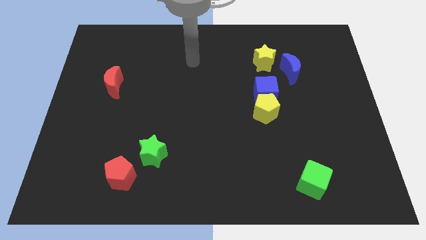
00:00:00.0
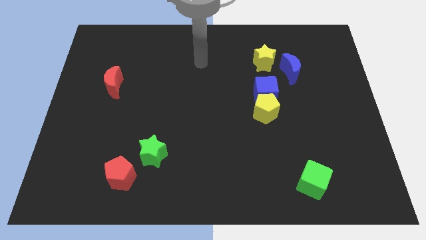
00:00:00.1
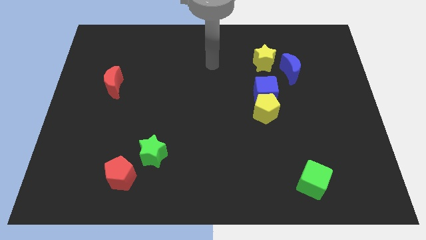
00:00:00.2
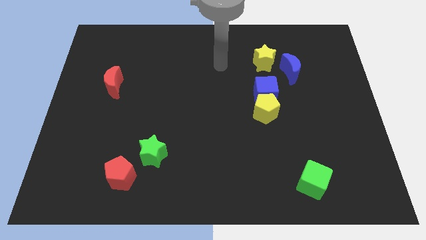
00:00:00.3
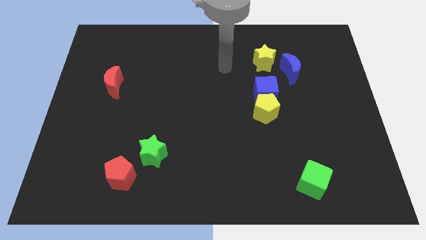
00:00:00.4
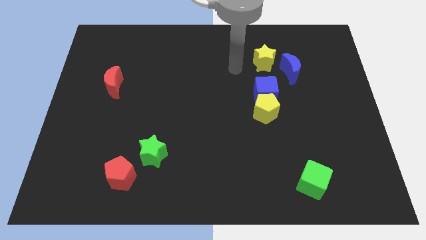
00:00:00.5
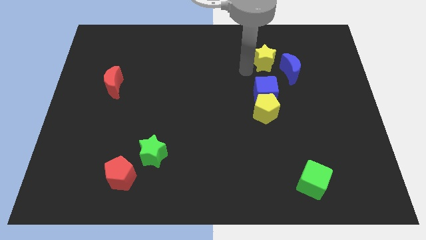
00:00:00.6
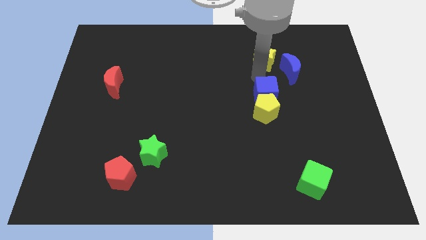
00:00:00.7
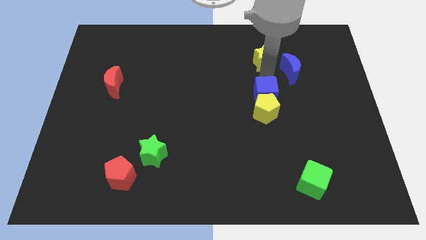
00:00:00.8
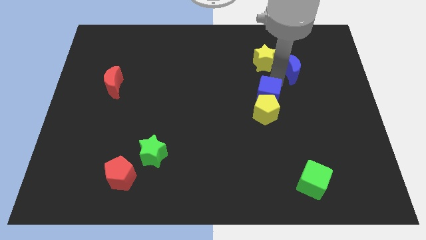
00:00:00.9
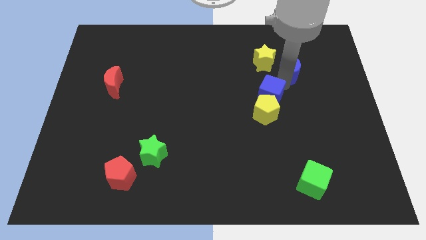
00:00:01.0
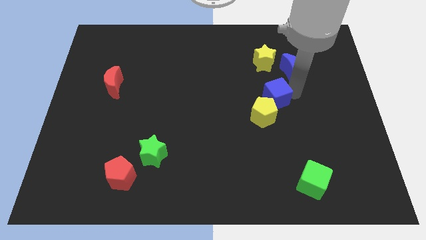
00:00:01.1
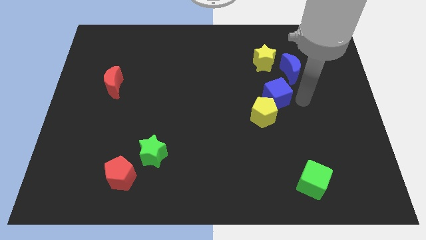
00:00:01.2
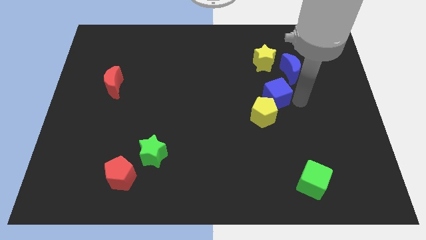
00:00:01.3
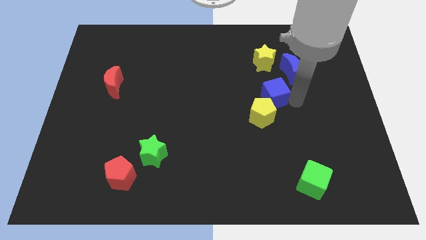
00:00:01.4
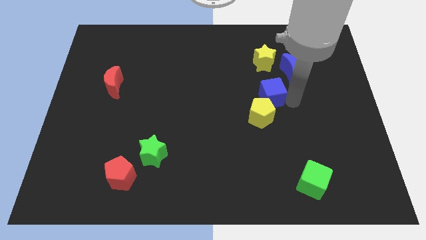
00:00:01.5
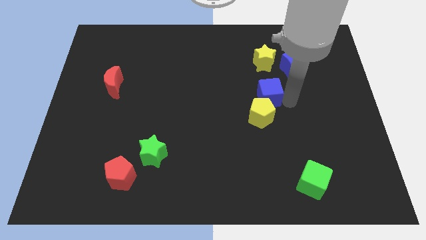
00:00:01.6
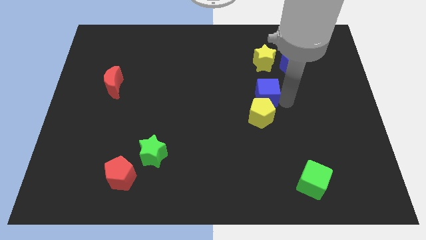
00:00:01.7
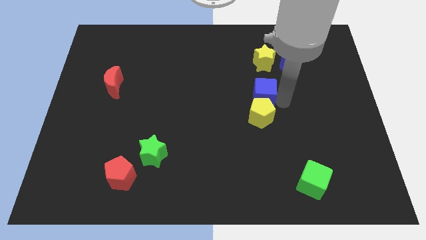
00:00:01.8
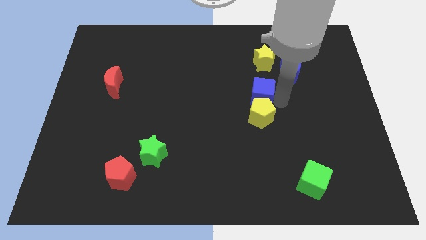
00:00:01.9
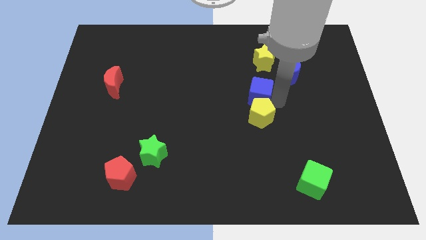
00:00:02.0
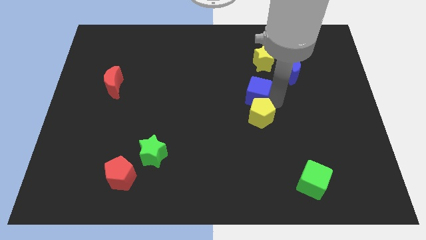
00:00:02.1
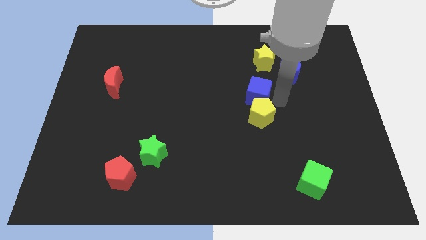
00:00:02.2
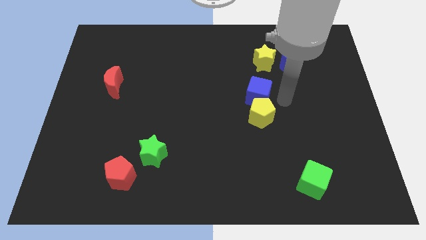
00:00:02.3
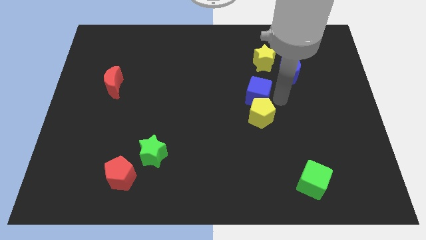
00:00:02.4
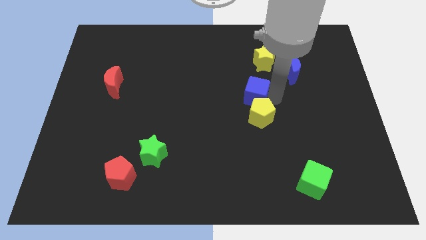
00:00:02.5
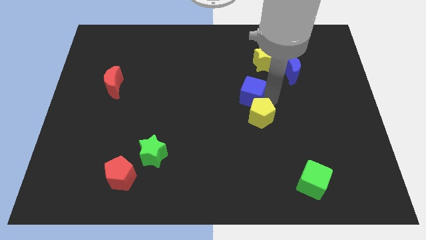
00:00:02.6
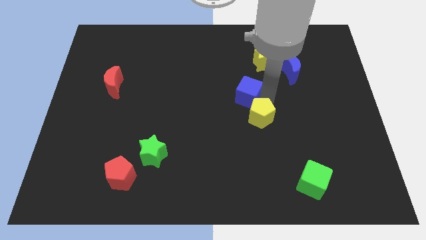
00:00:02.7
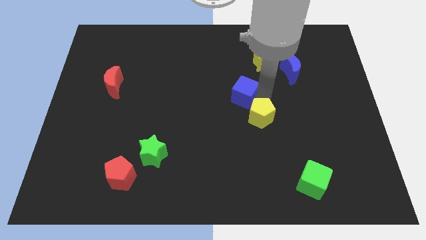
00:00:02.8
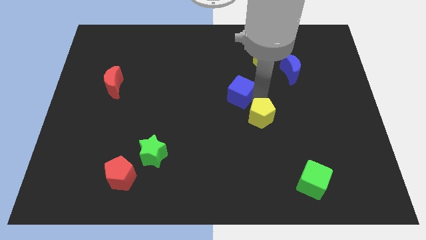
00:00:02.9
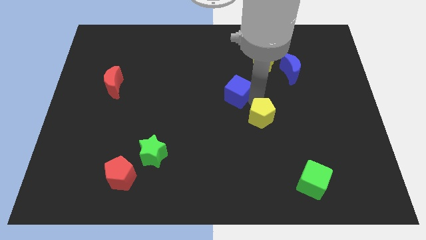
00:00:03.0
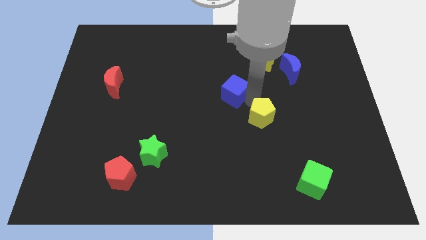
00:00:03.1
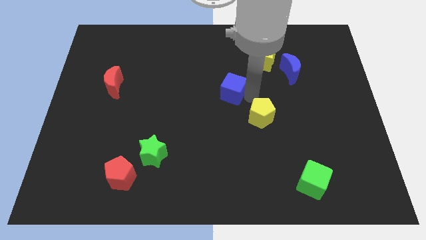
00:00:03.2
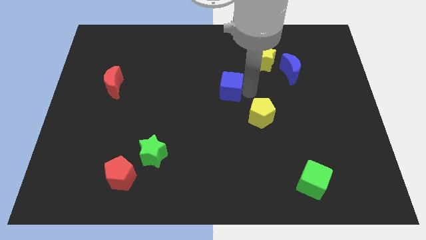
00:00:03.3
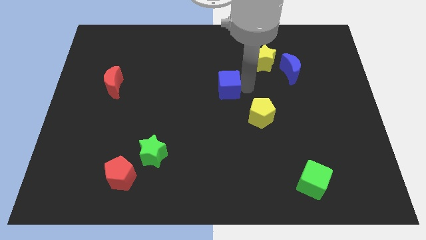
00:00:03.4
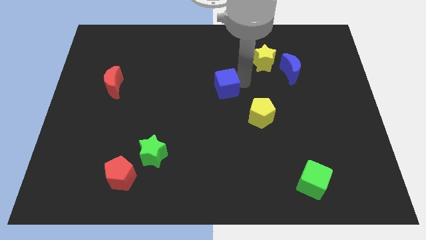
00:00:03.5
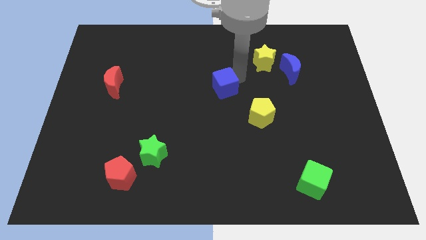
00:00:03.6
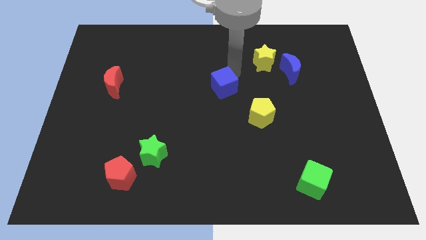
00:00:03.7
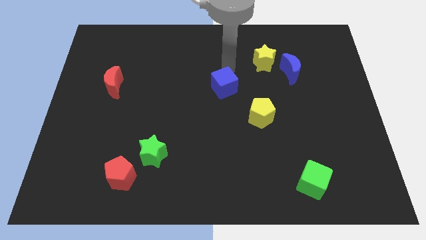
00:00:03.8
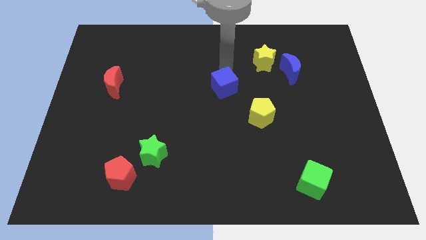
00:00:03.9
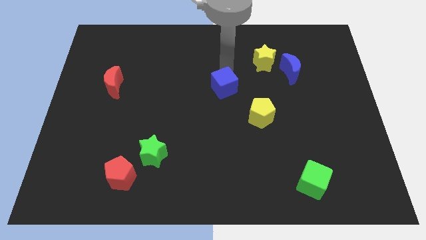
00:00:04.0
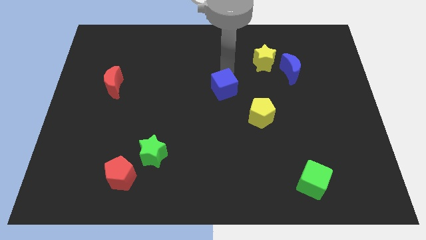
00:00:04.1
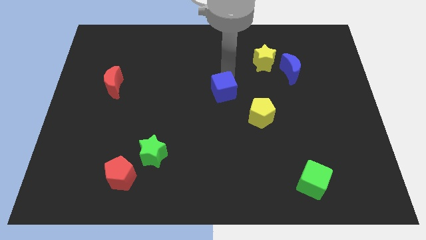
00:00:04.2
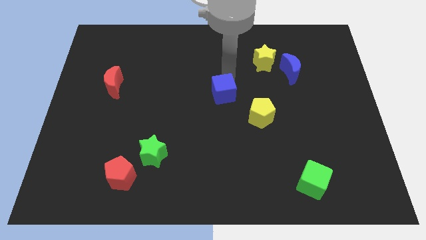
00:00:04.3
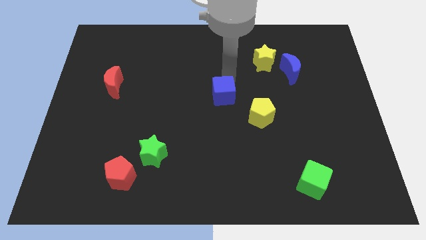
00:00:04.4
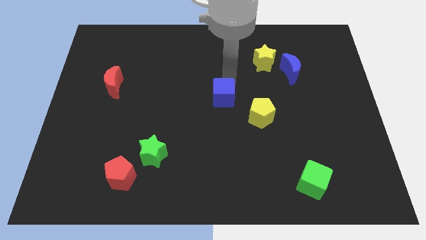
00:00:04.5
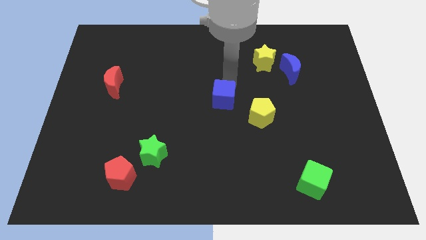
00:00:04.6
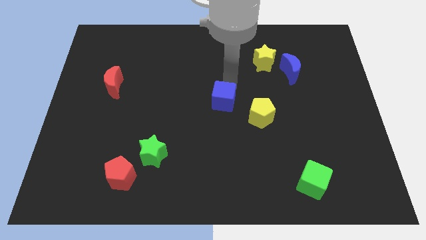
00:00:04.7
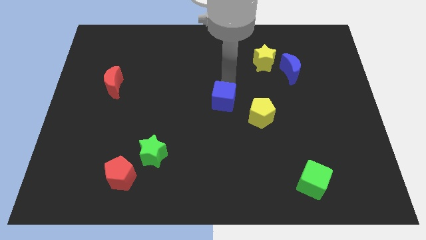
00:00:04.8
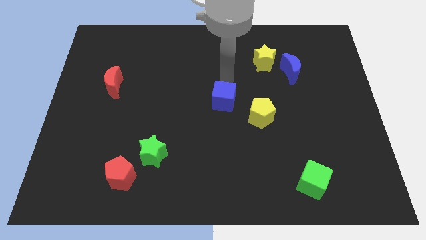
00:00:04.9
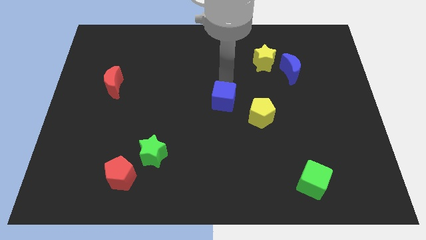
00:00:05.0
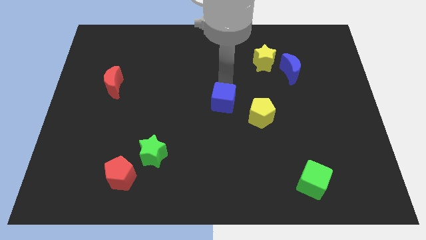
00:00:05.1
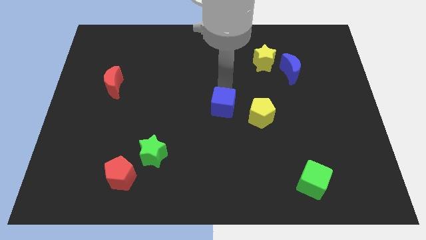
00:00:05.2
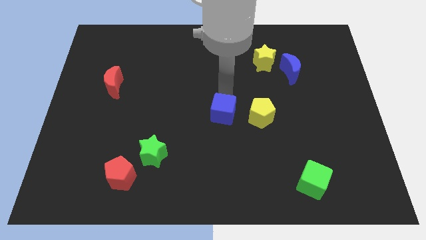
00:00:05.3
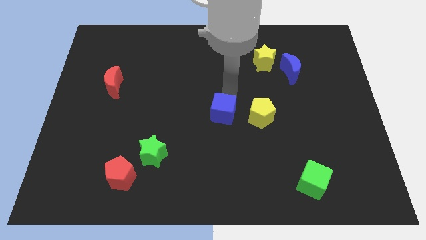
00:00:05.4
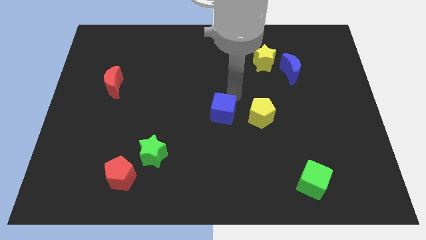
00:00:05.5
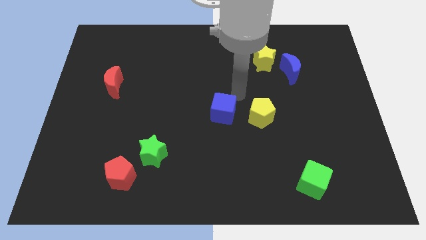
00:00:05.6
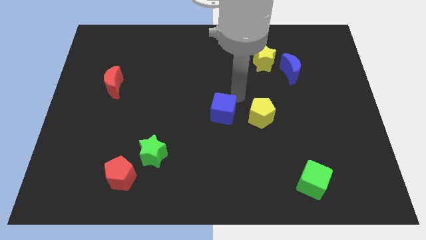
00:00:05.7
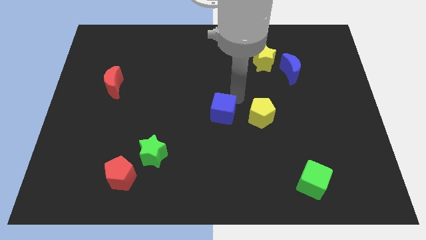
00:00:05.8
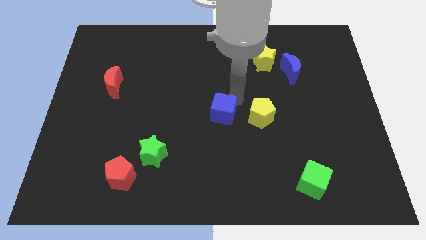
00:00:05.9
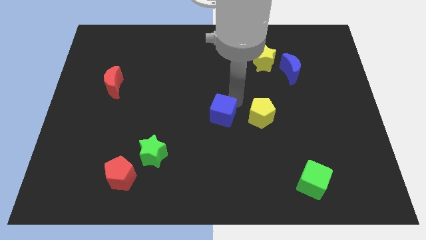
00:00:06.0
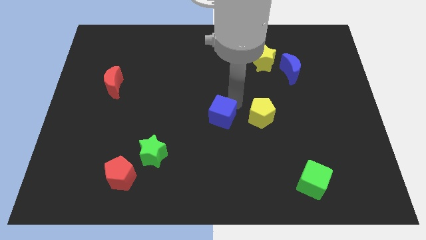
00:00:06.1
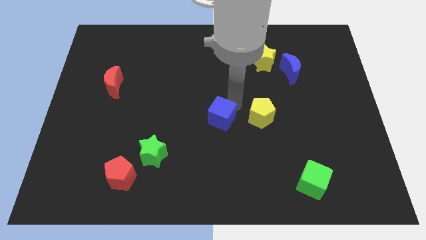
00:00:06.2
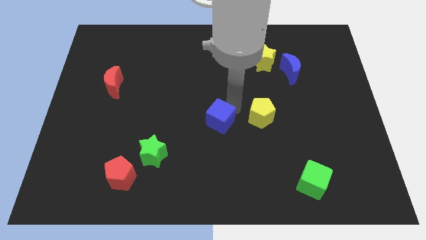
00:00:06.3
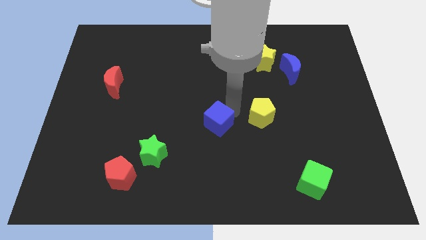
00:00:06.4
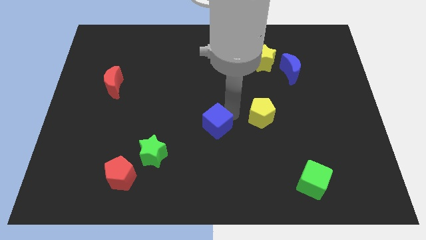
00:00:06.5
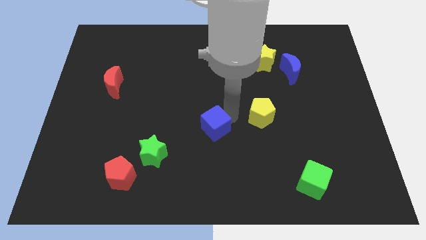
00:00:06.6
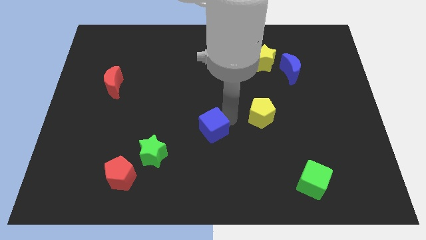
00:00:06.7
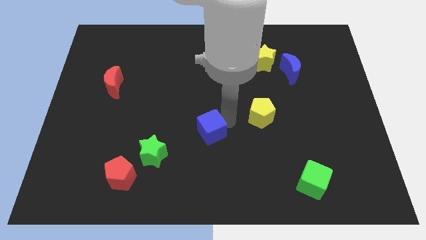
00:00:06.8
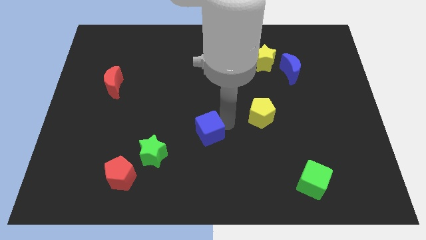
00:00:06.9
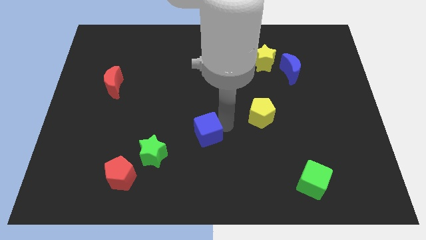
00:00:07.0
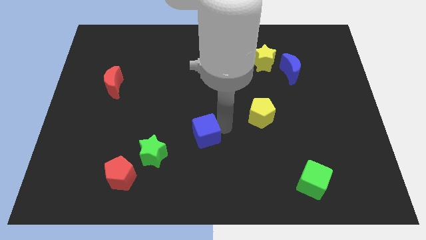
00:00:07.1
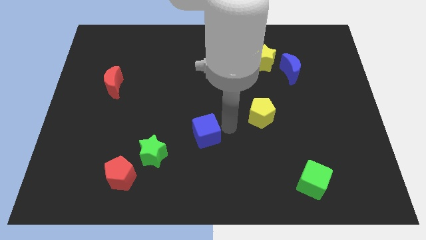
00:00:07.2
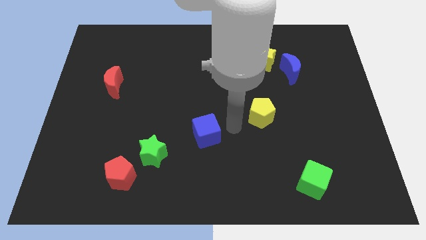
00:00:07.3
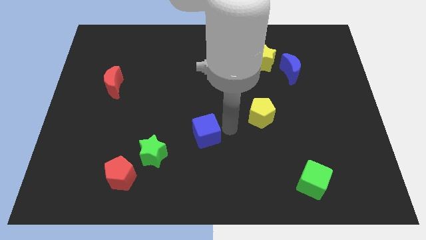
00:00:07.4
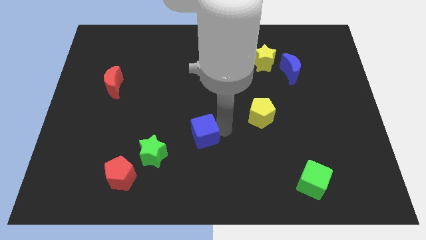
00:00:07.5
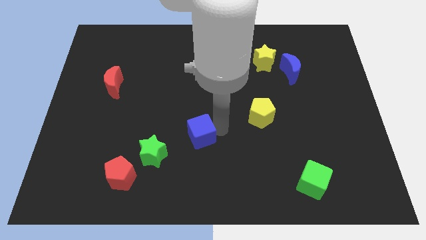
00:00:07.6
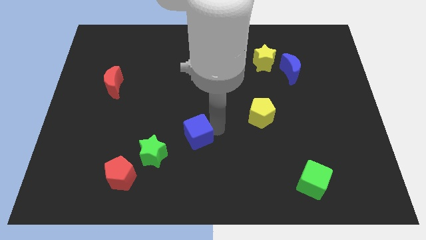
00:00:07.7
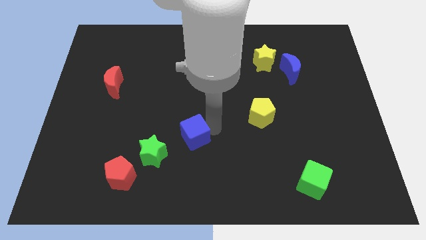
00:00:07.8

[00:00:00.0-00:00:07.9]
push the blue cube downwards and left
